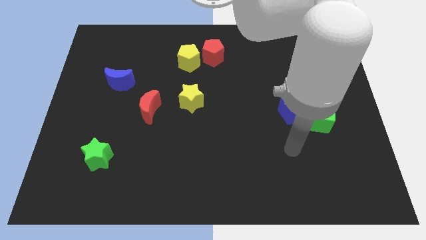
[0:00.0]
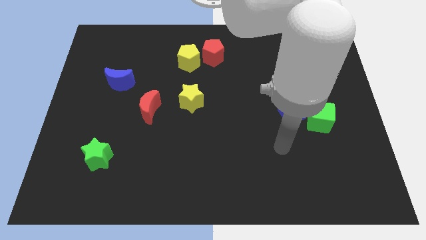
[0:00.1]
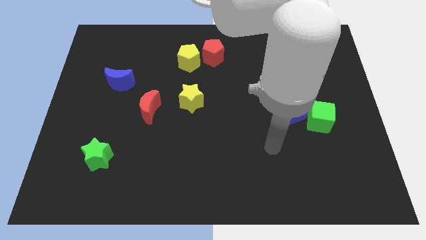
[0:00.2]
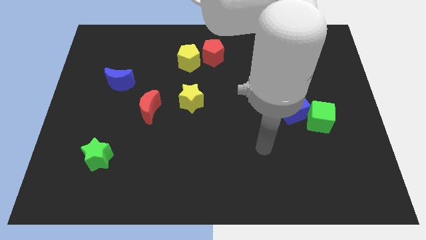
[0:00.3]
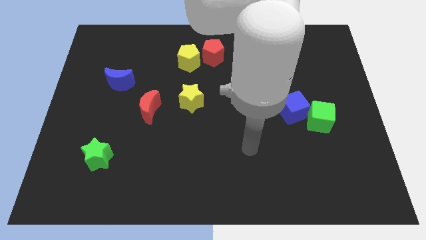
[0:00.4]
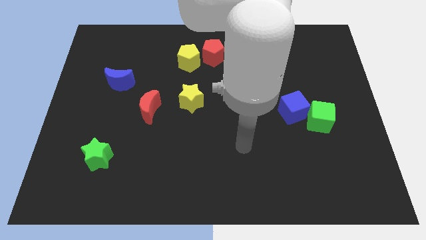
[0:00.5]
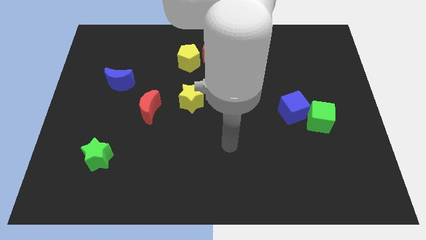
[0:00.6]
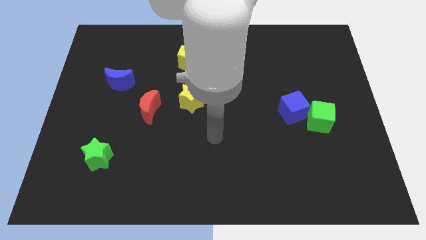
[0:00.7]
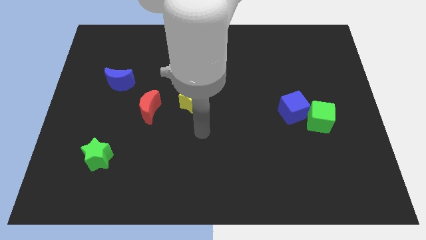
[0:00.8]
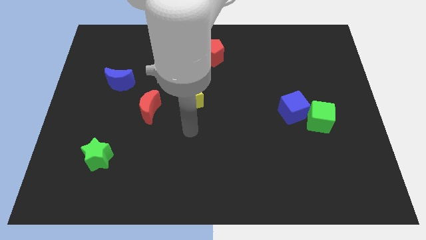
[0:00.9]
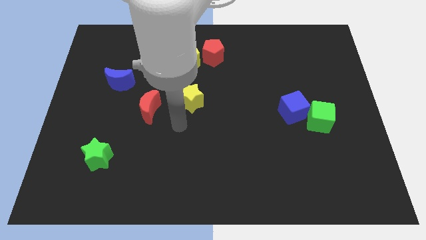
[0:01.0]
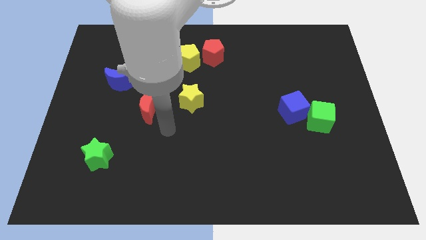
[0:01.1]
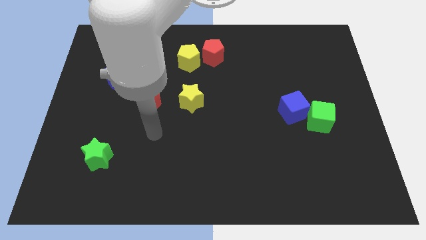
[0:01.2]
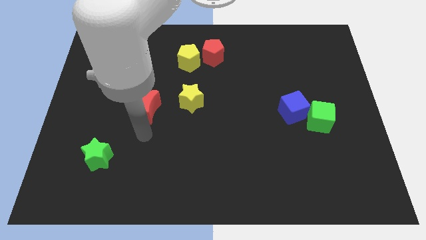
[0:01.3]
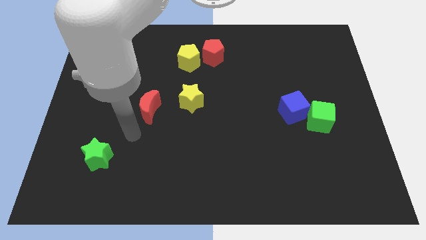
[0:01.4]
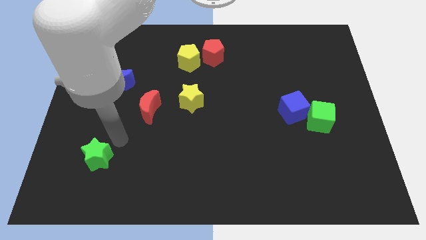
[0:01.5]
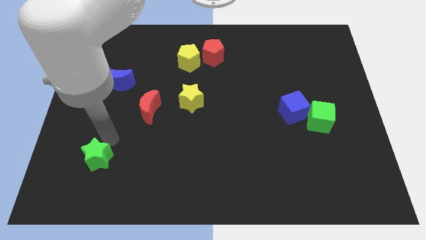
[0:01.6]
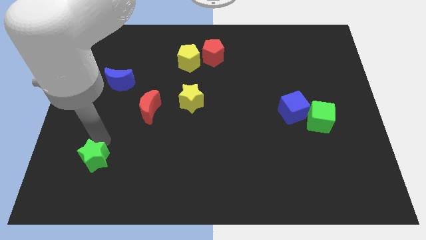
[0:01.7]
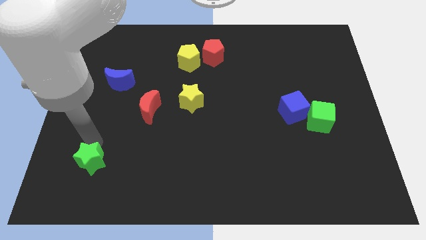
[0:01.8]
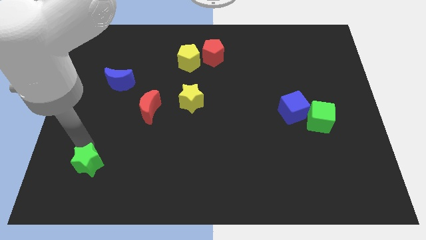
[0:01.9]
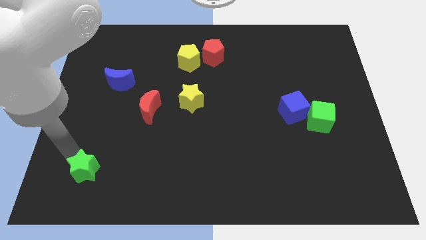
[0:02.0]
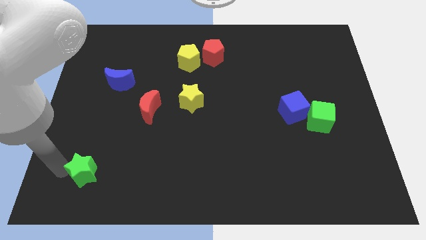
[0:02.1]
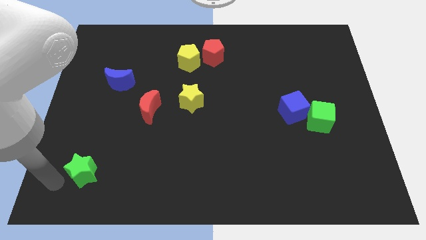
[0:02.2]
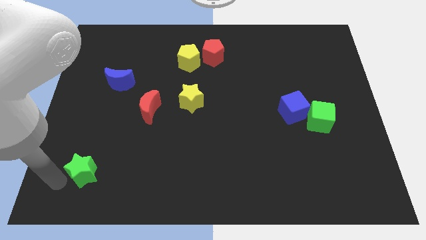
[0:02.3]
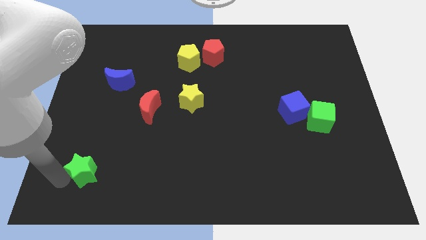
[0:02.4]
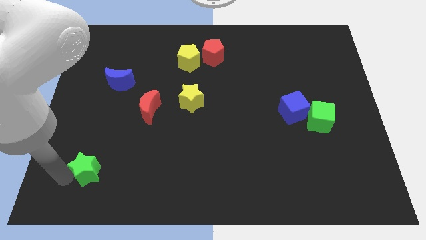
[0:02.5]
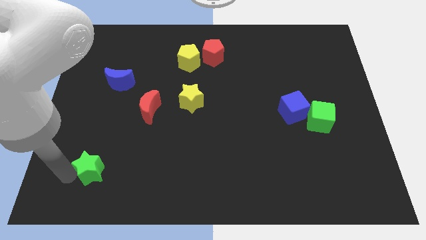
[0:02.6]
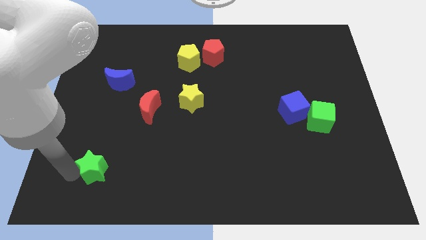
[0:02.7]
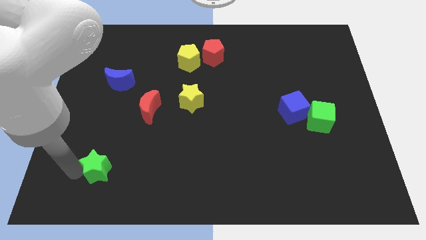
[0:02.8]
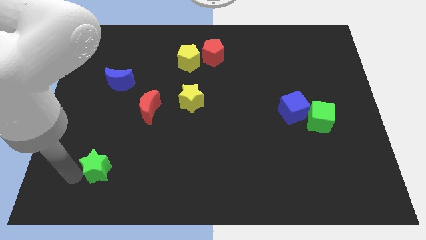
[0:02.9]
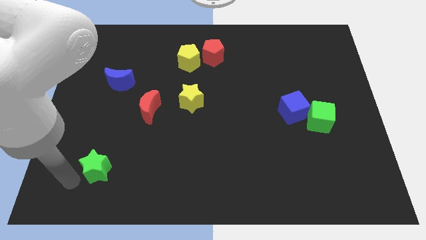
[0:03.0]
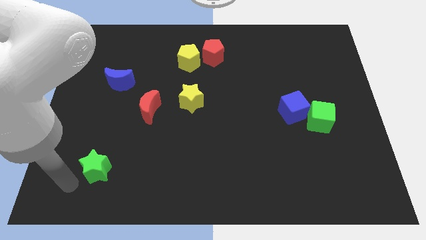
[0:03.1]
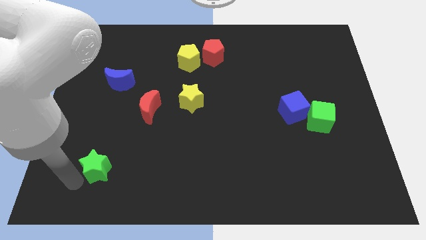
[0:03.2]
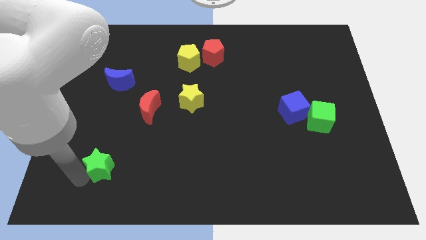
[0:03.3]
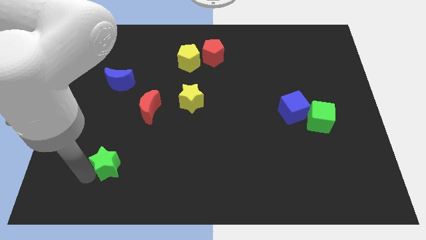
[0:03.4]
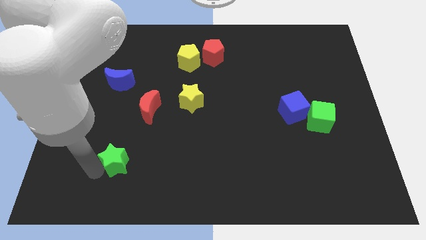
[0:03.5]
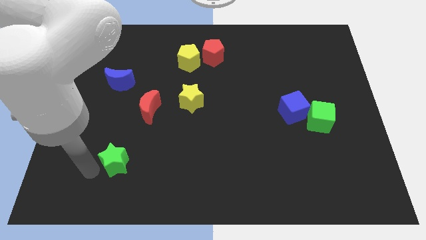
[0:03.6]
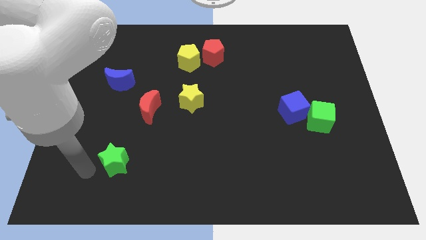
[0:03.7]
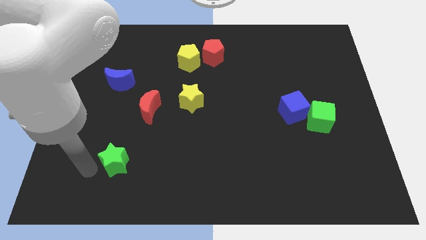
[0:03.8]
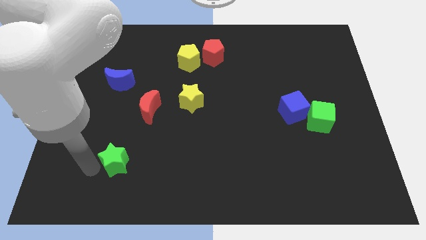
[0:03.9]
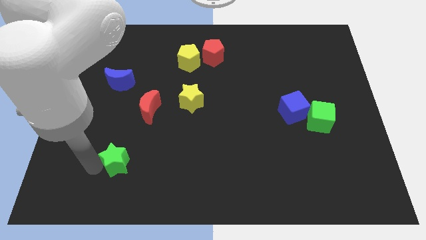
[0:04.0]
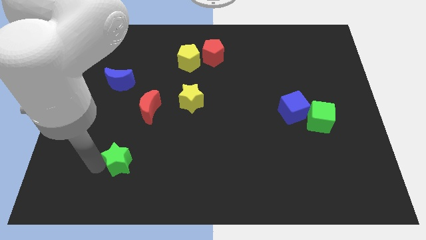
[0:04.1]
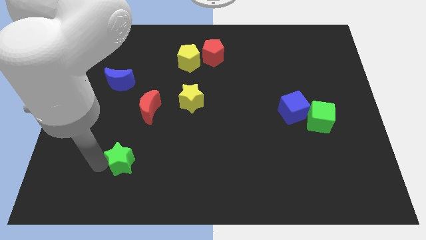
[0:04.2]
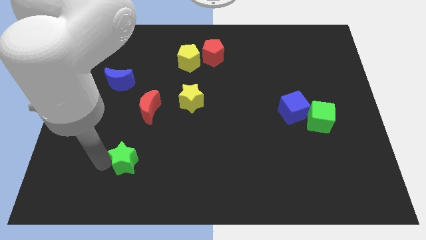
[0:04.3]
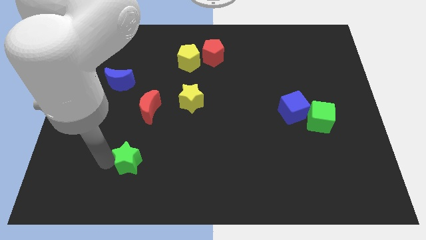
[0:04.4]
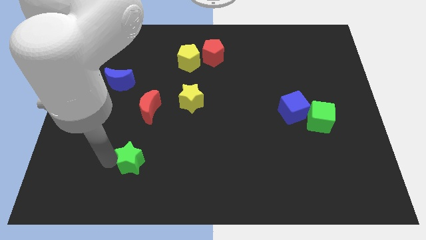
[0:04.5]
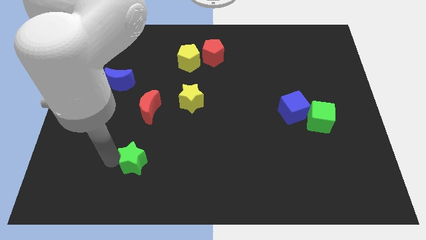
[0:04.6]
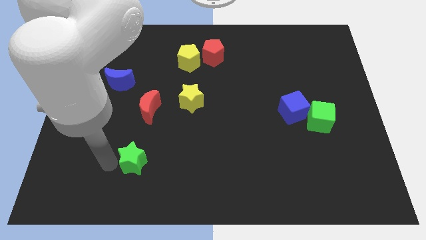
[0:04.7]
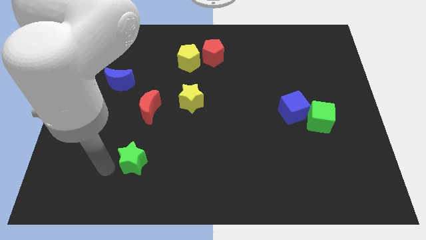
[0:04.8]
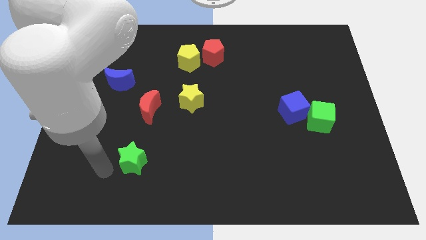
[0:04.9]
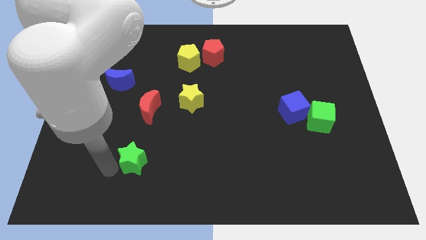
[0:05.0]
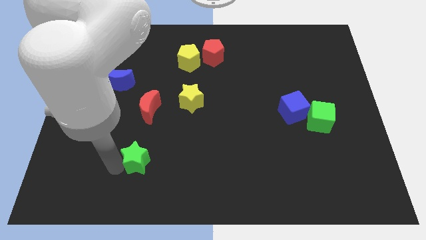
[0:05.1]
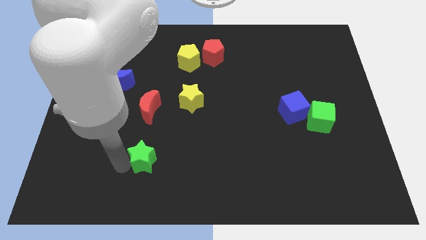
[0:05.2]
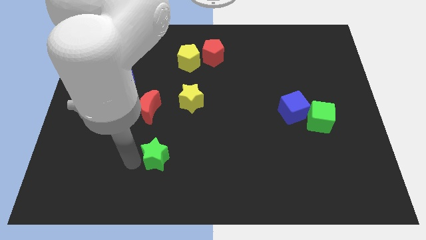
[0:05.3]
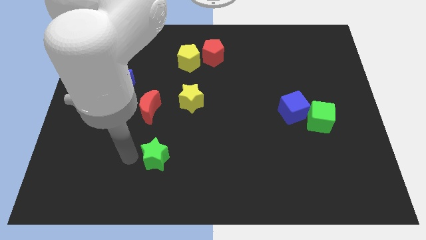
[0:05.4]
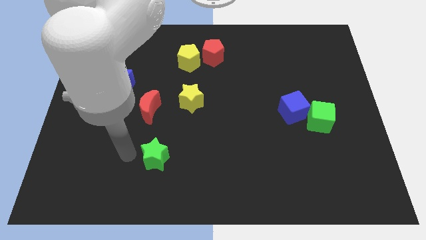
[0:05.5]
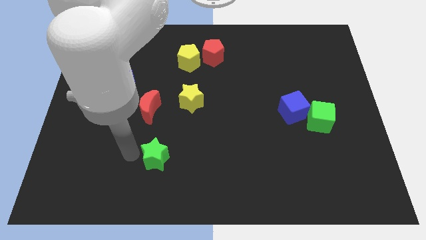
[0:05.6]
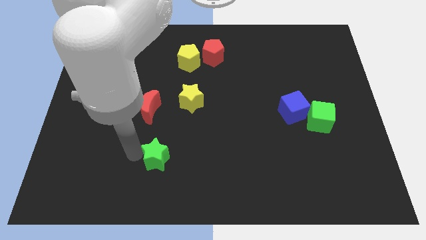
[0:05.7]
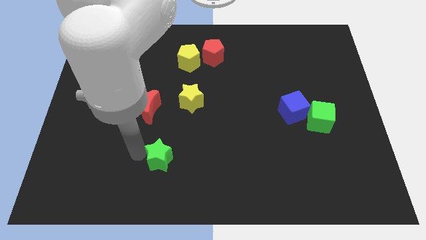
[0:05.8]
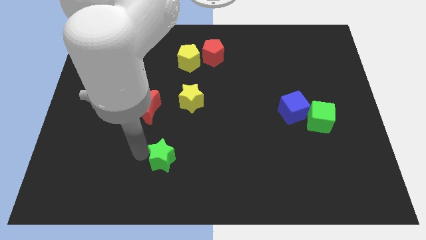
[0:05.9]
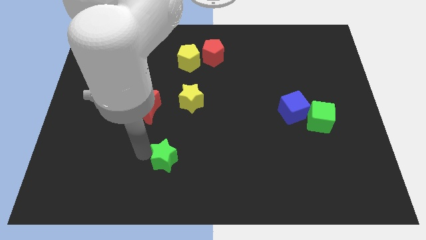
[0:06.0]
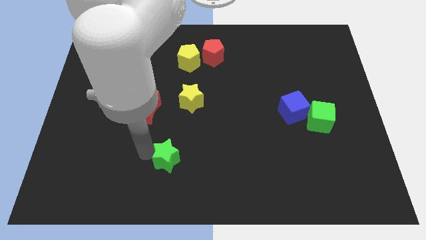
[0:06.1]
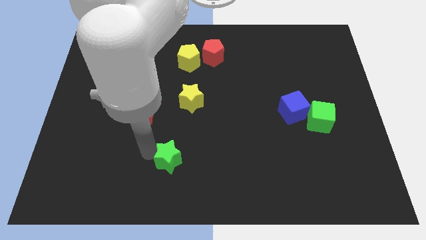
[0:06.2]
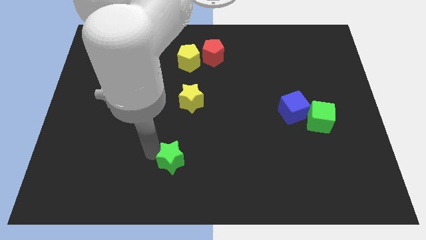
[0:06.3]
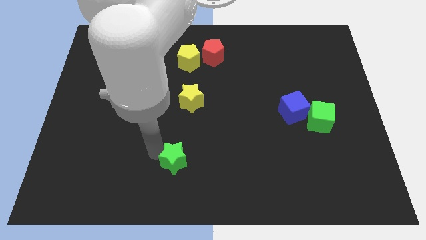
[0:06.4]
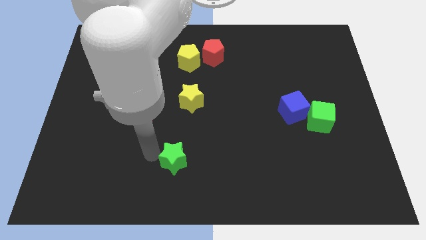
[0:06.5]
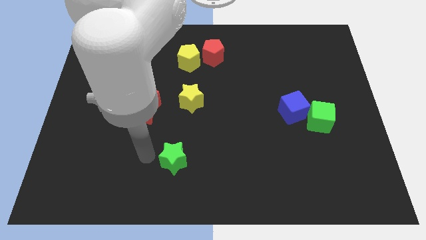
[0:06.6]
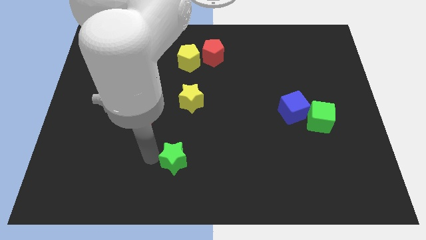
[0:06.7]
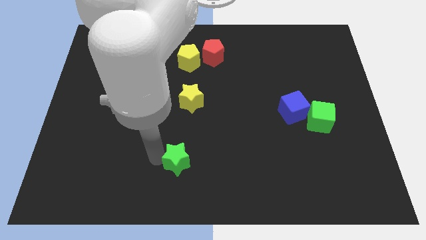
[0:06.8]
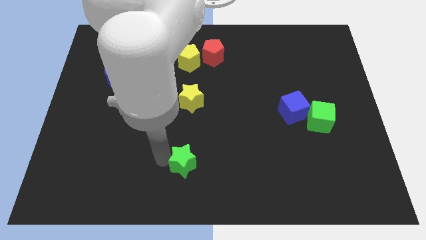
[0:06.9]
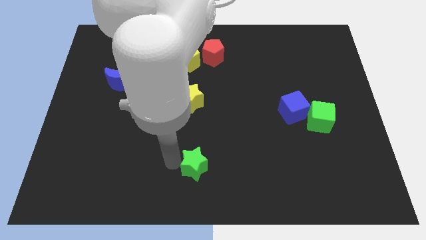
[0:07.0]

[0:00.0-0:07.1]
push the green star right

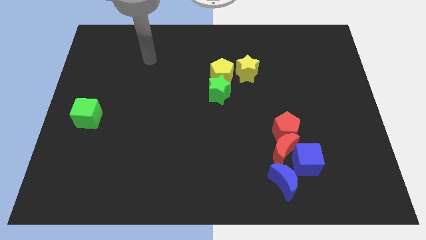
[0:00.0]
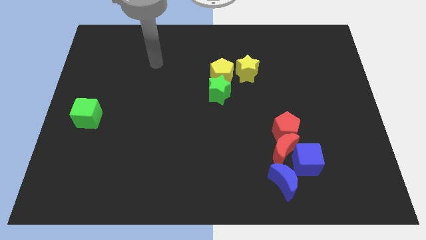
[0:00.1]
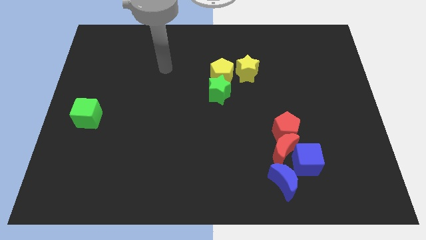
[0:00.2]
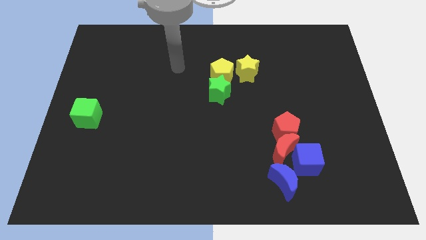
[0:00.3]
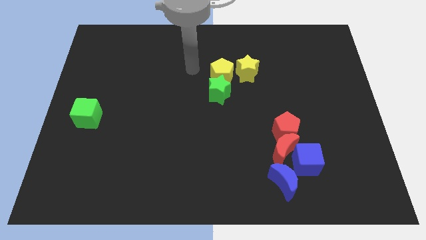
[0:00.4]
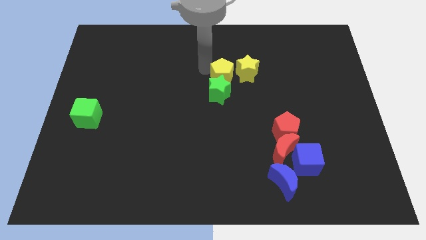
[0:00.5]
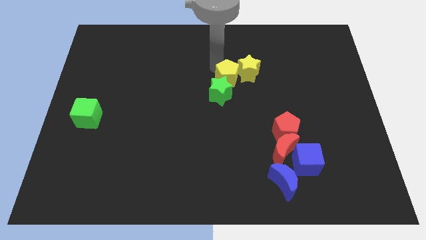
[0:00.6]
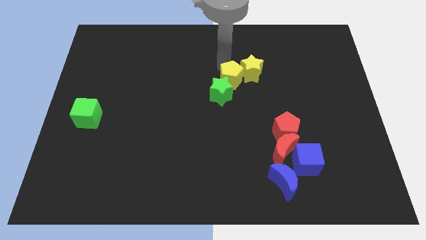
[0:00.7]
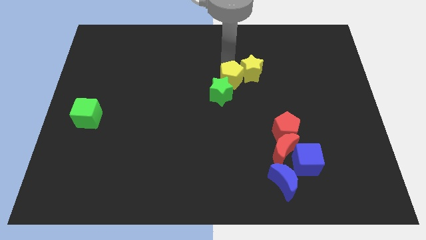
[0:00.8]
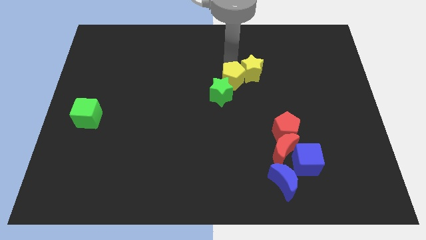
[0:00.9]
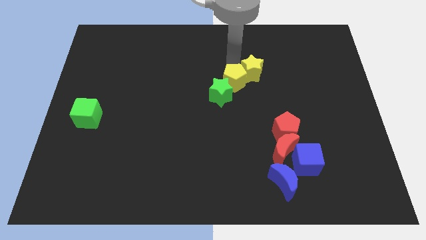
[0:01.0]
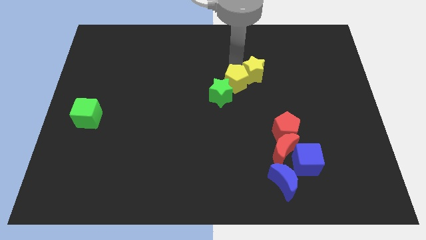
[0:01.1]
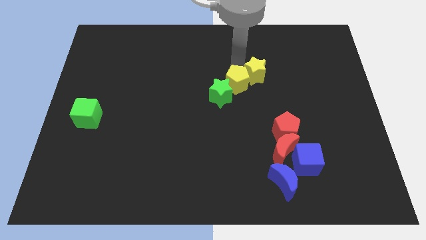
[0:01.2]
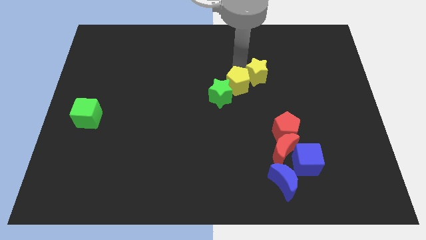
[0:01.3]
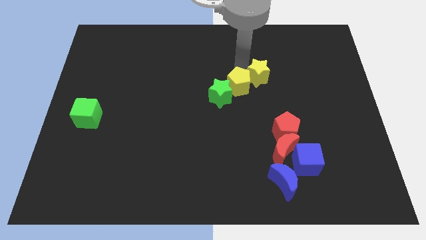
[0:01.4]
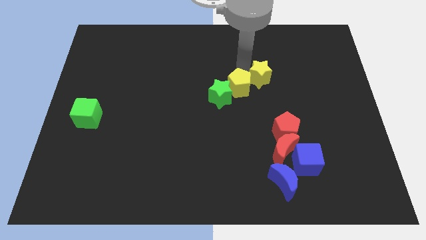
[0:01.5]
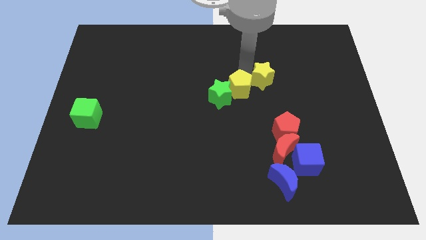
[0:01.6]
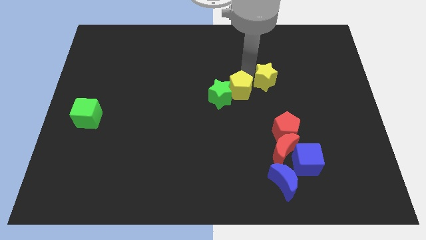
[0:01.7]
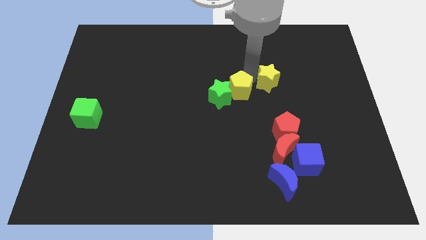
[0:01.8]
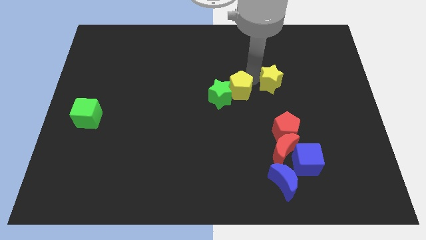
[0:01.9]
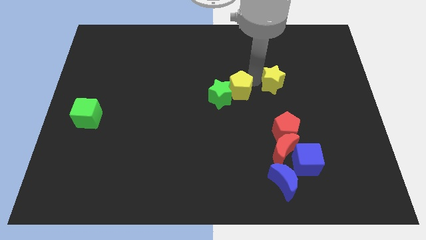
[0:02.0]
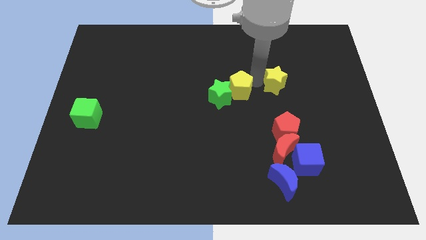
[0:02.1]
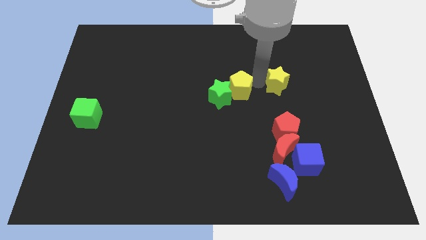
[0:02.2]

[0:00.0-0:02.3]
slide the yellow star right a little bit
